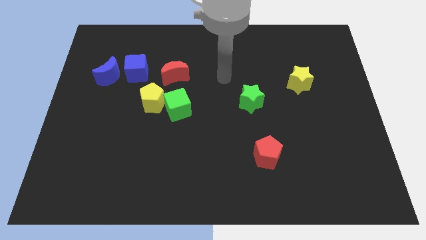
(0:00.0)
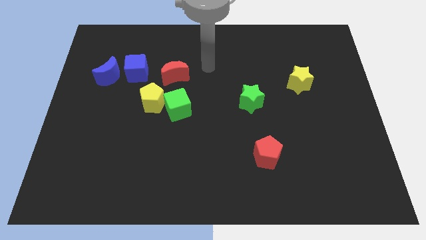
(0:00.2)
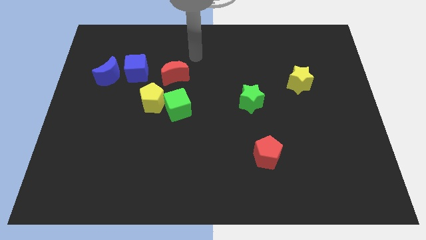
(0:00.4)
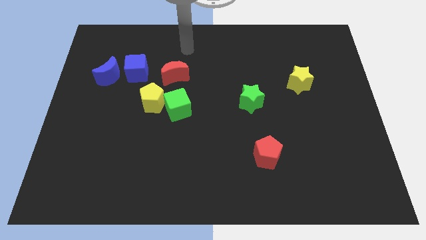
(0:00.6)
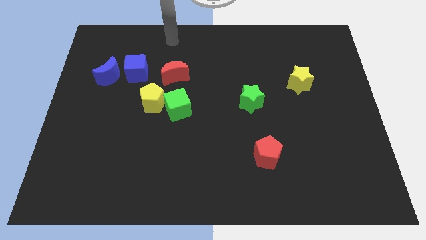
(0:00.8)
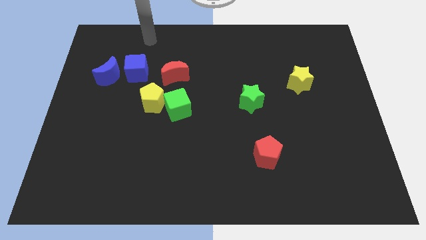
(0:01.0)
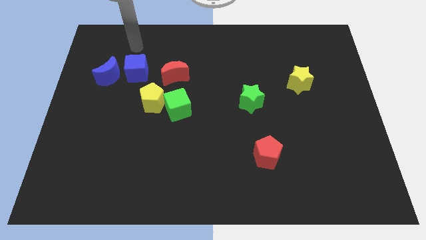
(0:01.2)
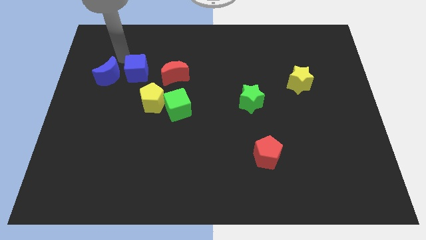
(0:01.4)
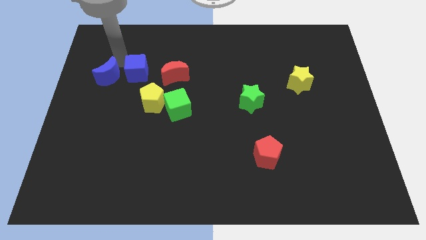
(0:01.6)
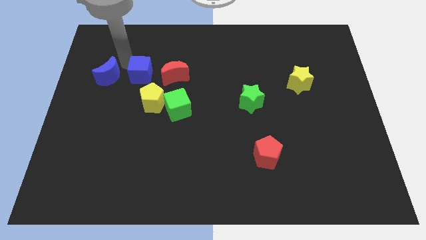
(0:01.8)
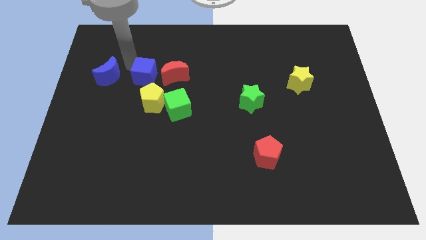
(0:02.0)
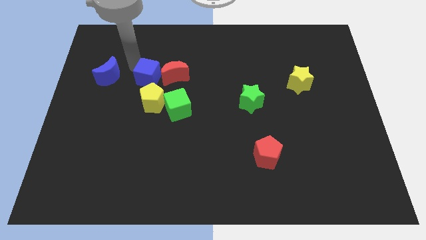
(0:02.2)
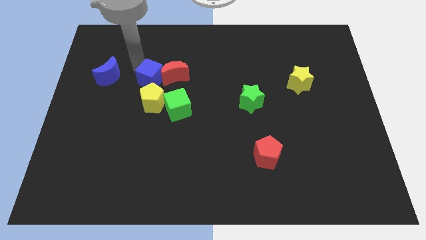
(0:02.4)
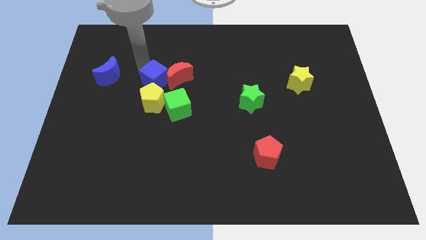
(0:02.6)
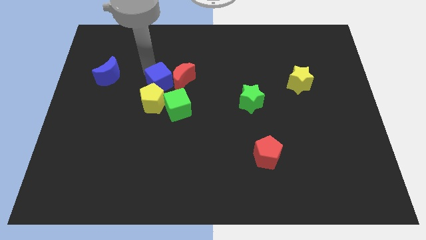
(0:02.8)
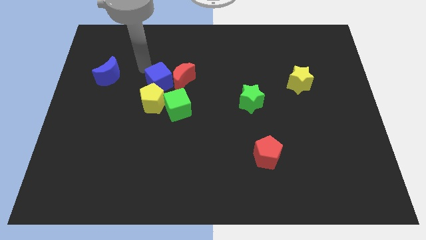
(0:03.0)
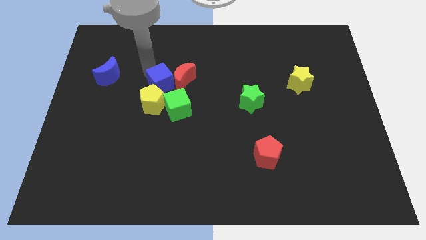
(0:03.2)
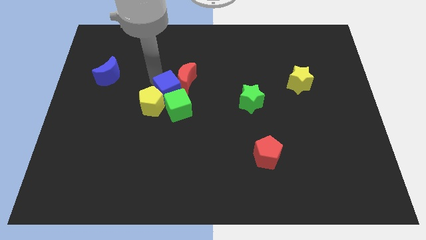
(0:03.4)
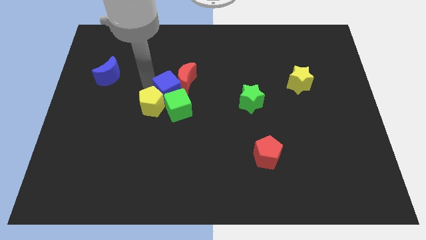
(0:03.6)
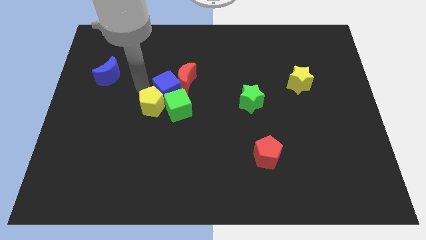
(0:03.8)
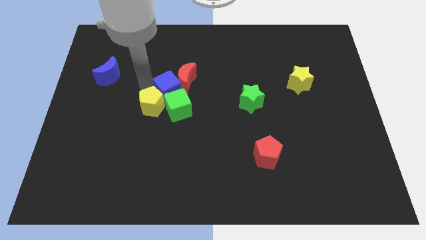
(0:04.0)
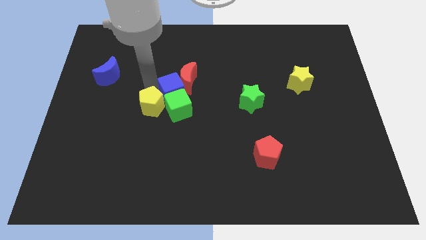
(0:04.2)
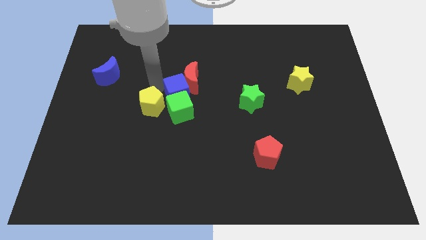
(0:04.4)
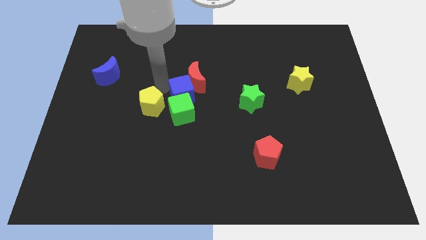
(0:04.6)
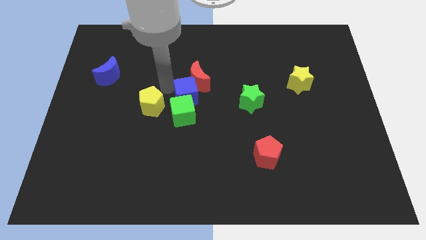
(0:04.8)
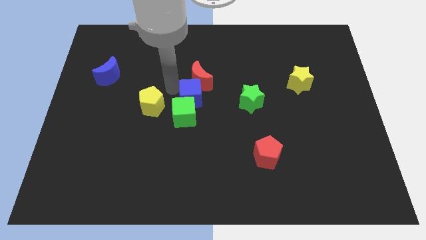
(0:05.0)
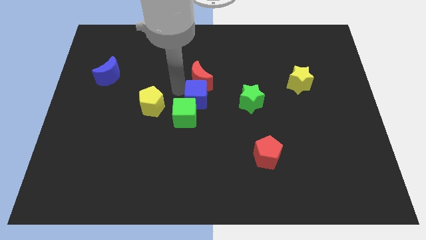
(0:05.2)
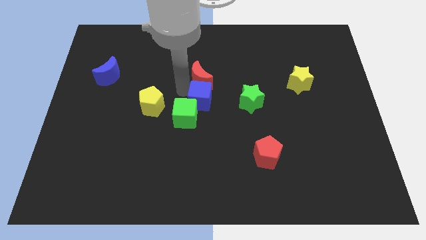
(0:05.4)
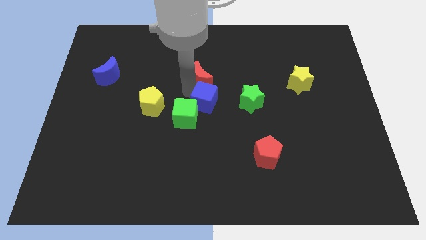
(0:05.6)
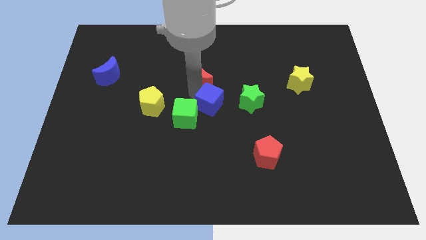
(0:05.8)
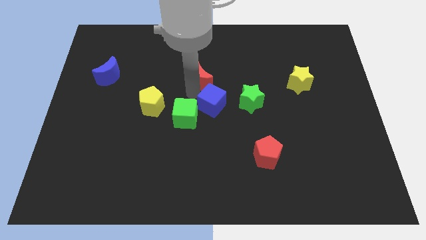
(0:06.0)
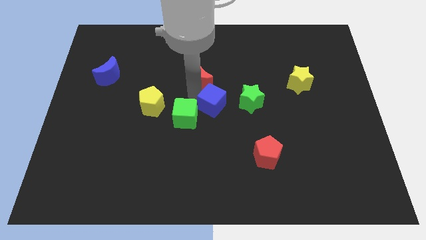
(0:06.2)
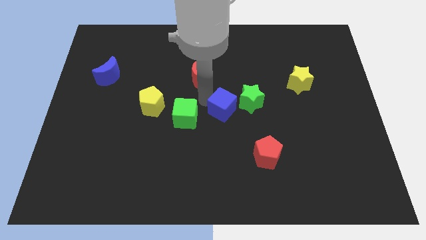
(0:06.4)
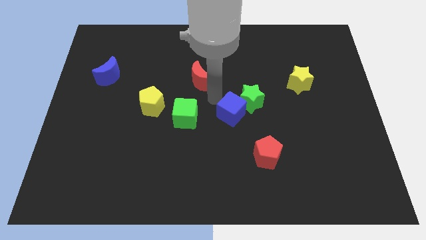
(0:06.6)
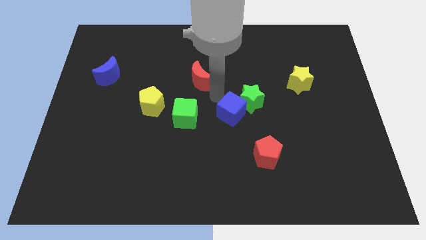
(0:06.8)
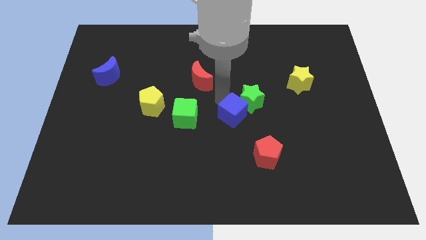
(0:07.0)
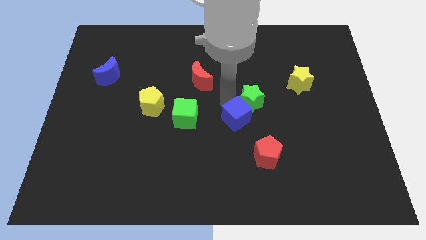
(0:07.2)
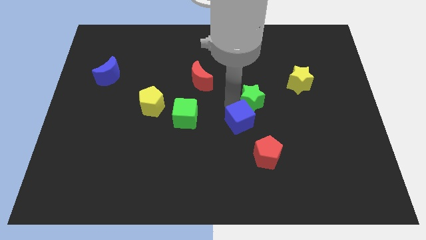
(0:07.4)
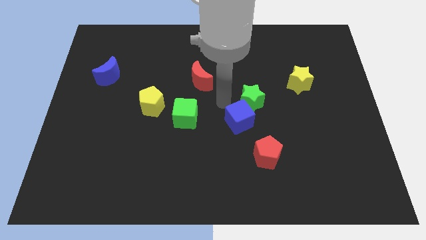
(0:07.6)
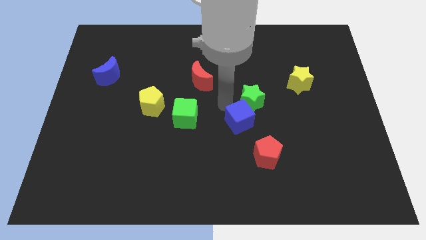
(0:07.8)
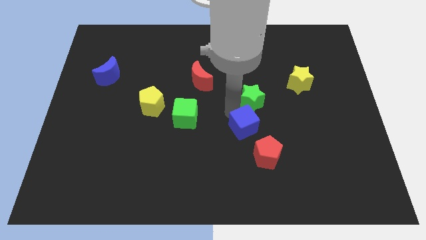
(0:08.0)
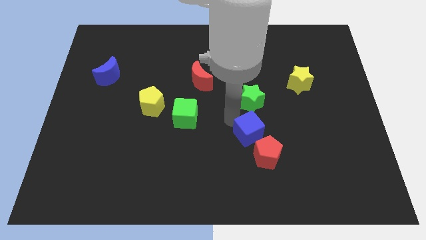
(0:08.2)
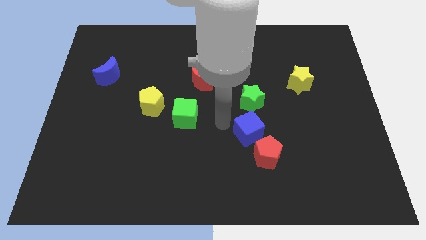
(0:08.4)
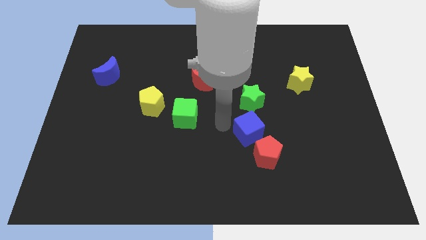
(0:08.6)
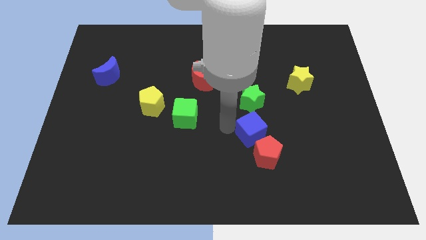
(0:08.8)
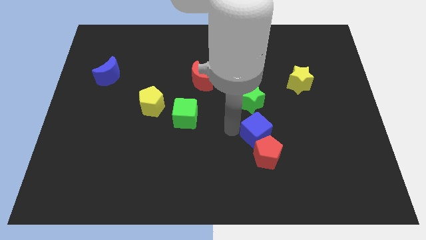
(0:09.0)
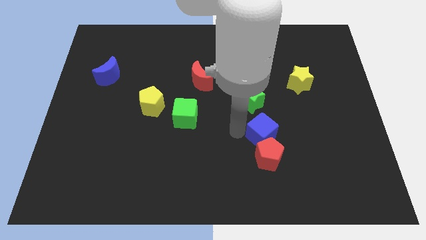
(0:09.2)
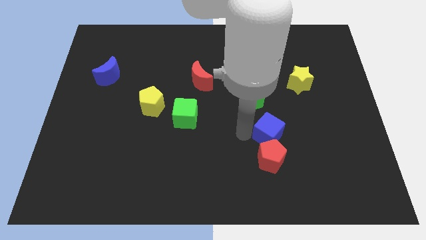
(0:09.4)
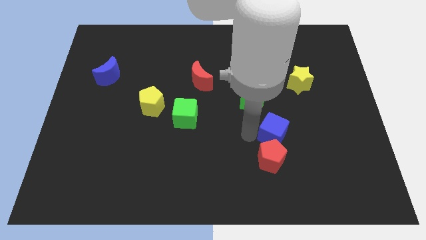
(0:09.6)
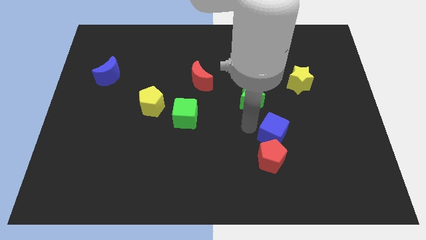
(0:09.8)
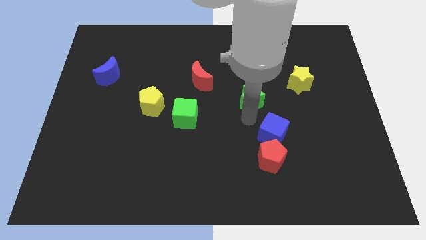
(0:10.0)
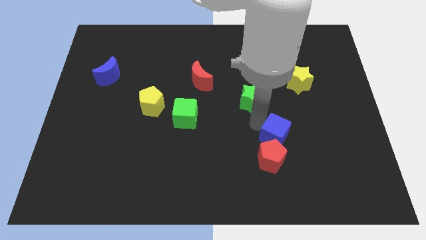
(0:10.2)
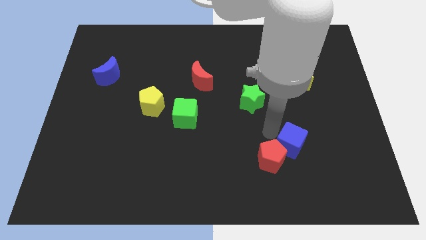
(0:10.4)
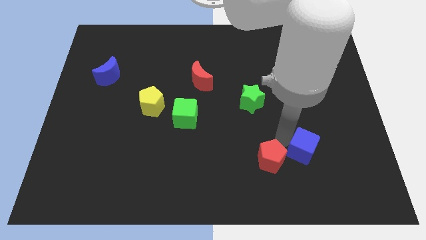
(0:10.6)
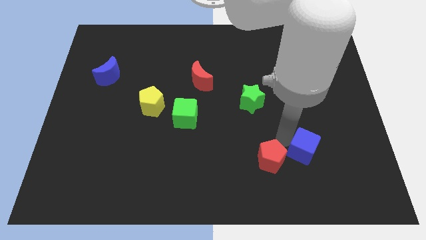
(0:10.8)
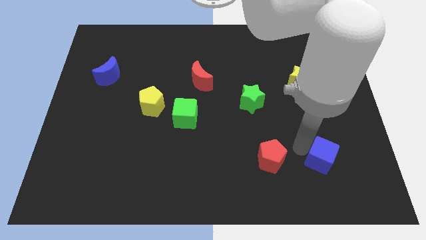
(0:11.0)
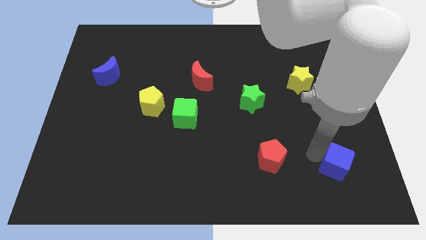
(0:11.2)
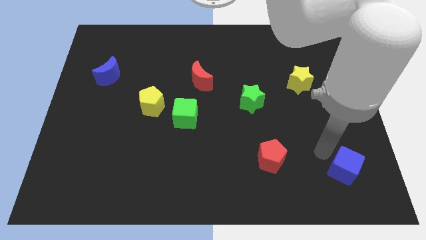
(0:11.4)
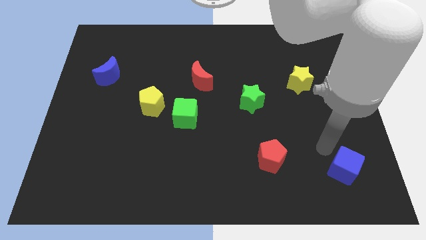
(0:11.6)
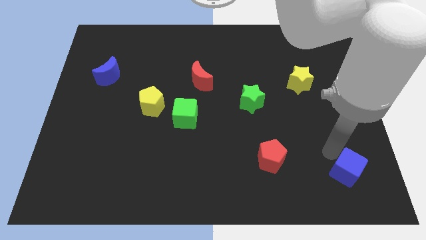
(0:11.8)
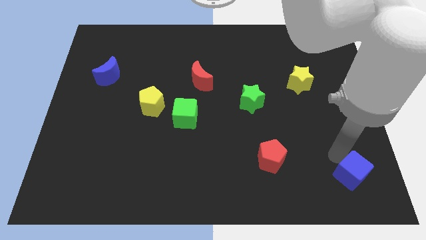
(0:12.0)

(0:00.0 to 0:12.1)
push the blue cube to the bottom right of the board
